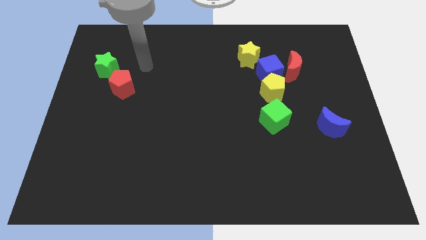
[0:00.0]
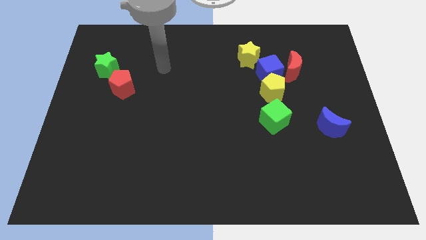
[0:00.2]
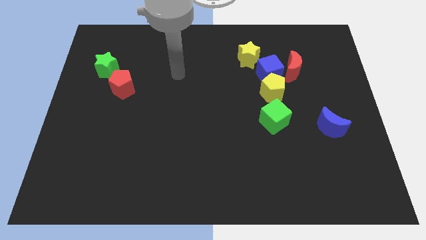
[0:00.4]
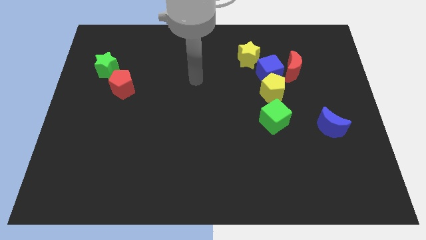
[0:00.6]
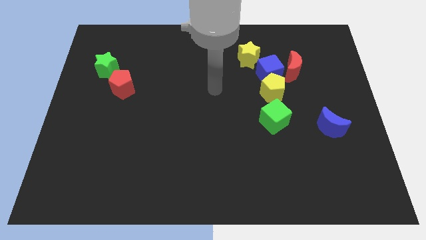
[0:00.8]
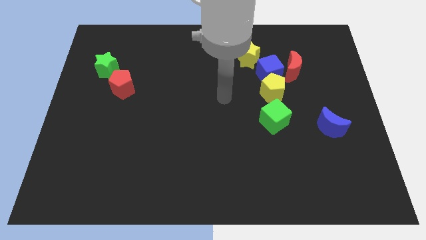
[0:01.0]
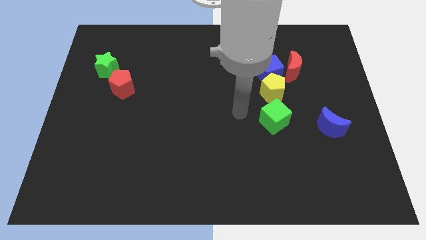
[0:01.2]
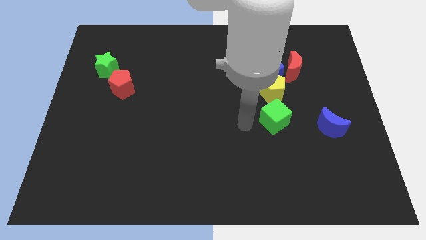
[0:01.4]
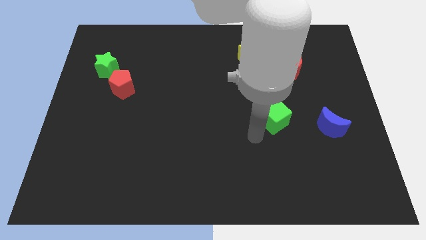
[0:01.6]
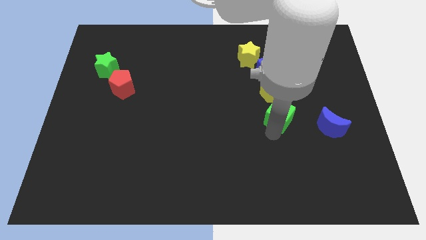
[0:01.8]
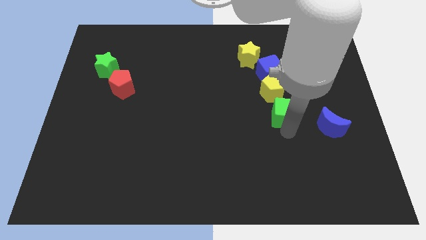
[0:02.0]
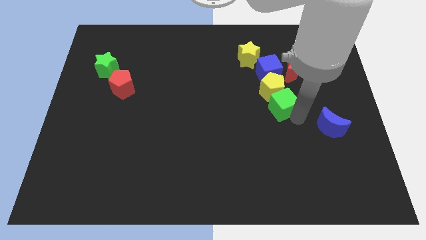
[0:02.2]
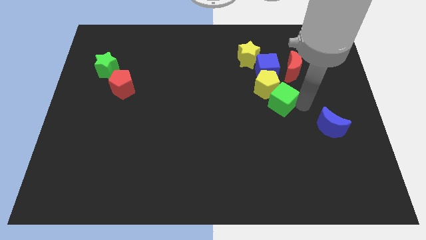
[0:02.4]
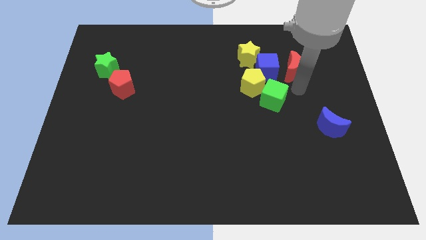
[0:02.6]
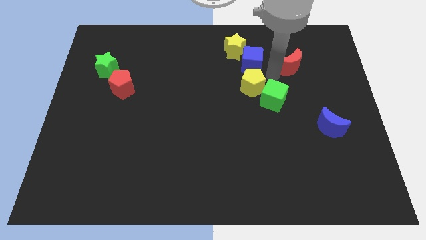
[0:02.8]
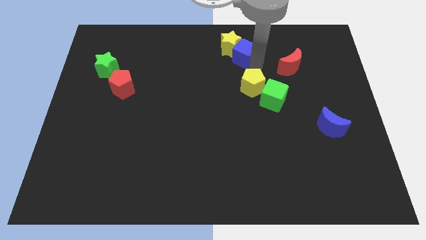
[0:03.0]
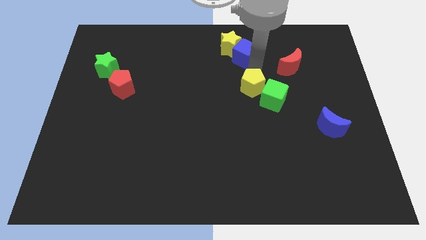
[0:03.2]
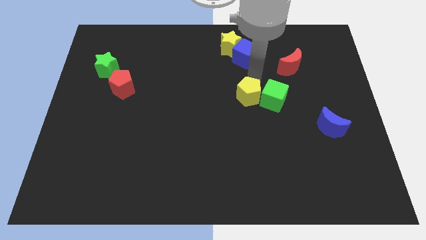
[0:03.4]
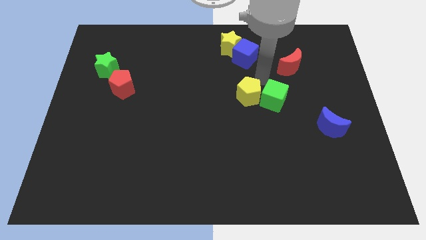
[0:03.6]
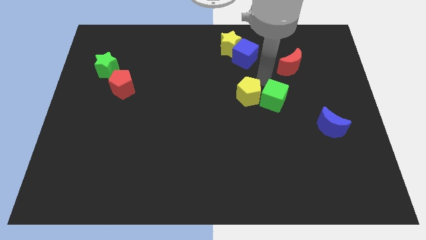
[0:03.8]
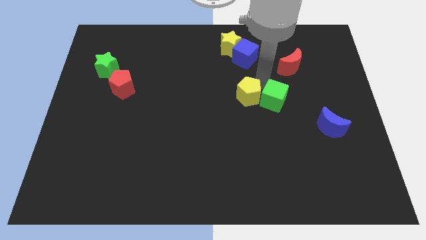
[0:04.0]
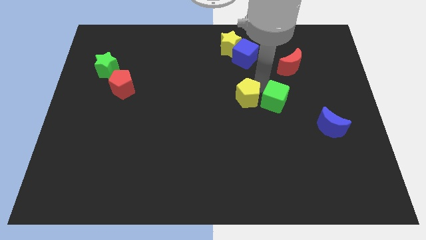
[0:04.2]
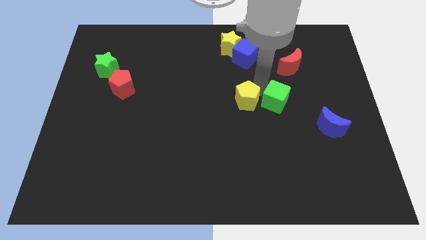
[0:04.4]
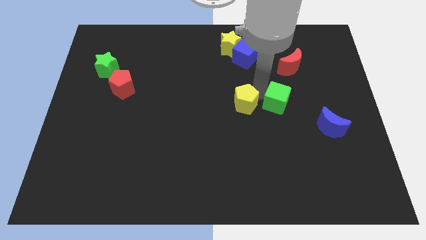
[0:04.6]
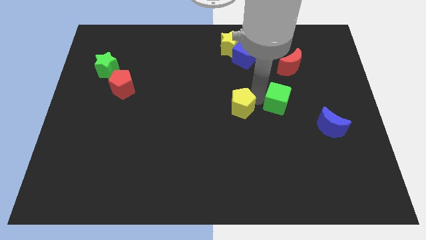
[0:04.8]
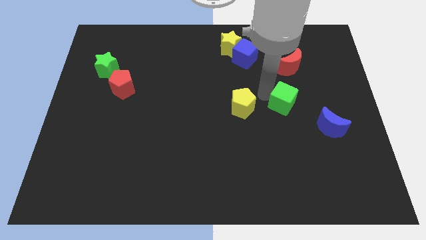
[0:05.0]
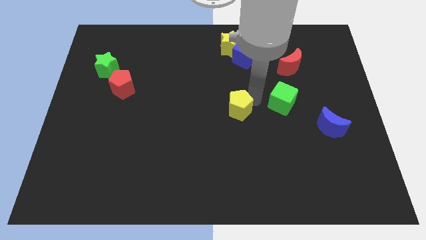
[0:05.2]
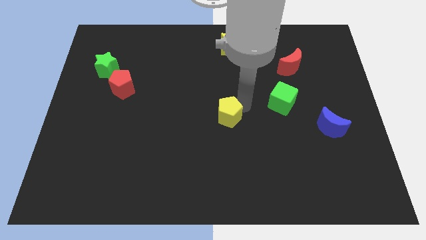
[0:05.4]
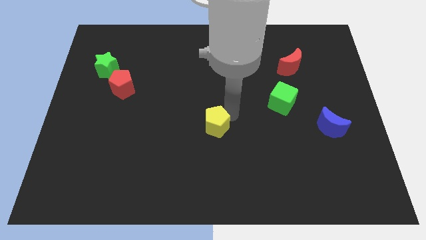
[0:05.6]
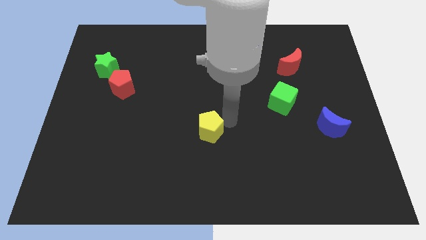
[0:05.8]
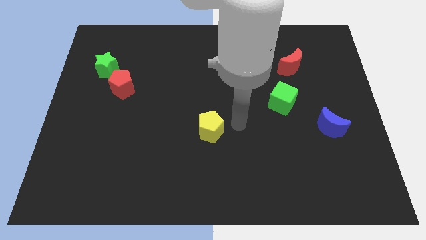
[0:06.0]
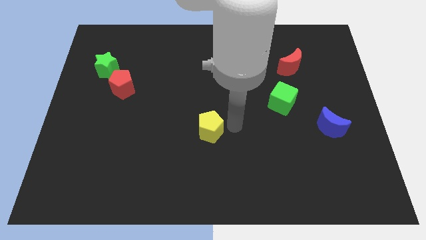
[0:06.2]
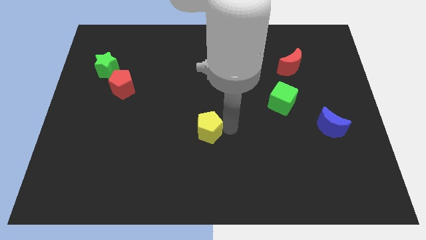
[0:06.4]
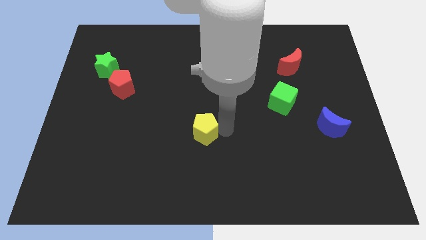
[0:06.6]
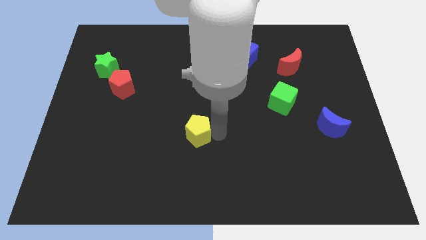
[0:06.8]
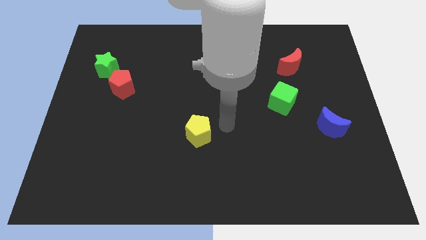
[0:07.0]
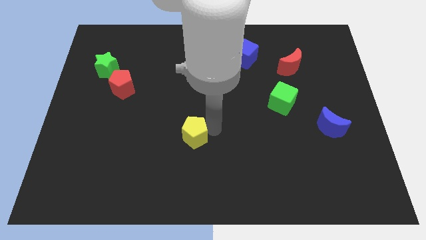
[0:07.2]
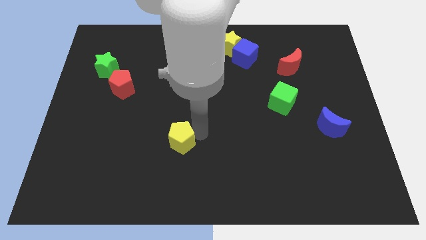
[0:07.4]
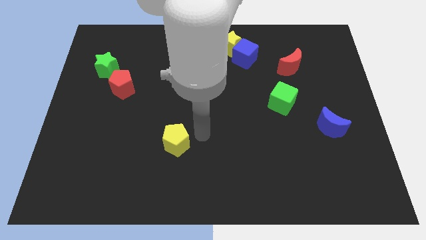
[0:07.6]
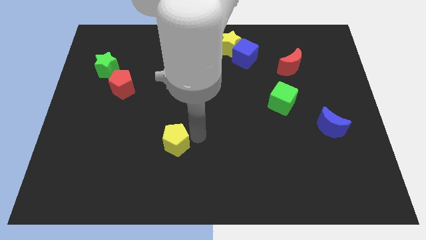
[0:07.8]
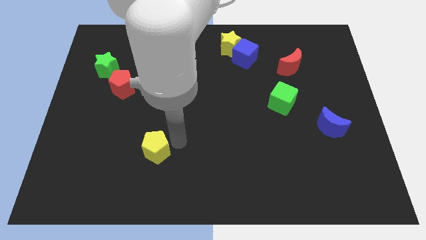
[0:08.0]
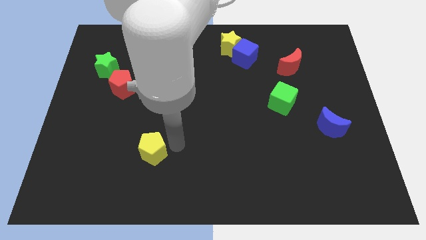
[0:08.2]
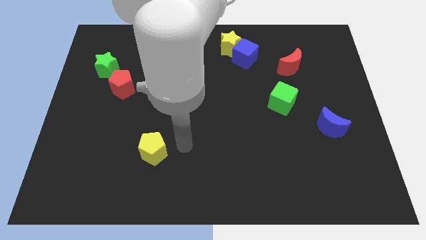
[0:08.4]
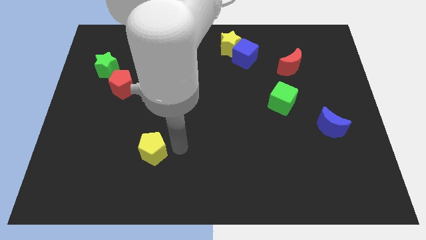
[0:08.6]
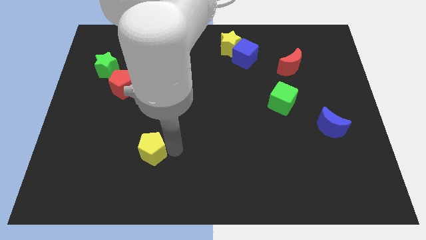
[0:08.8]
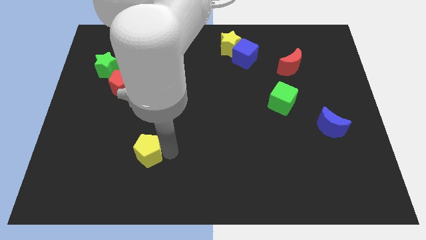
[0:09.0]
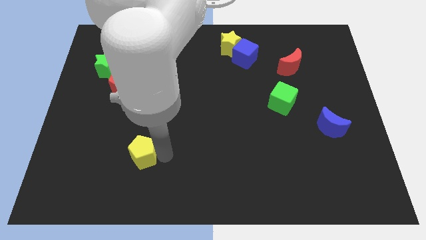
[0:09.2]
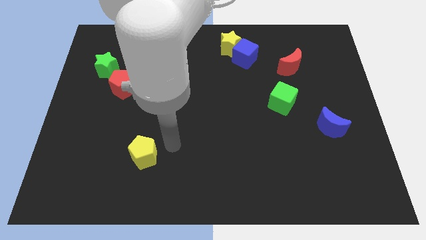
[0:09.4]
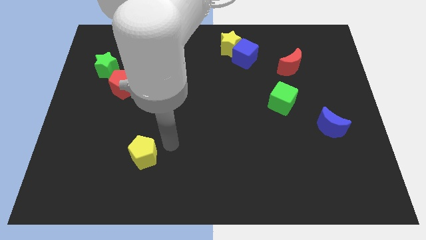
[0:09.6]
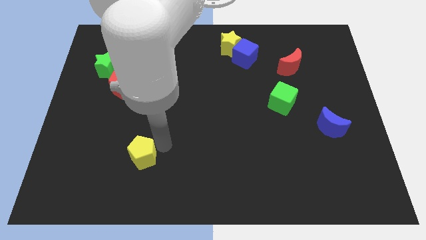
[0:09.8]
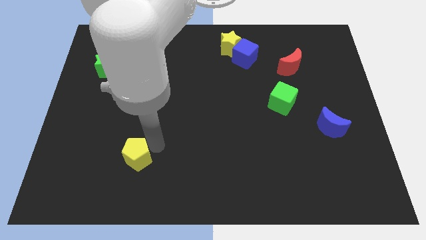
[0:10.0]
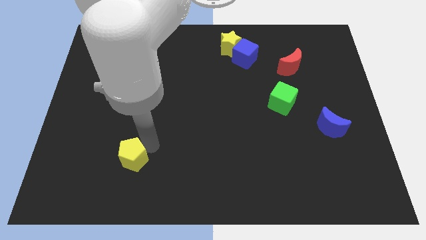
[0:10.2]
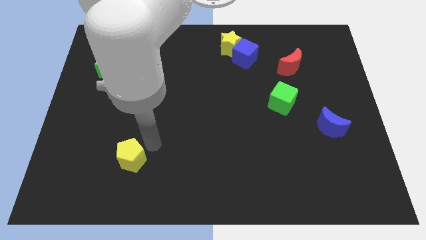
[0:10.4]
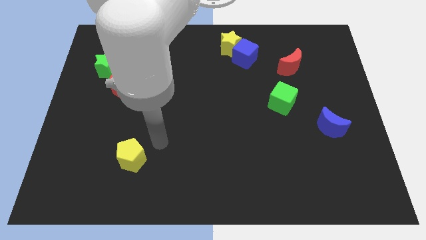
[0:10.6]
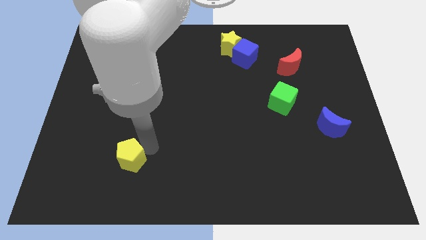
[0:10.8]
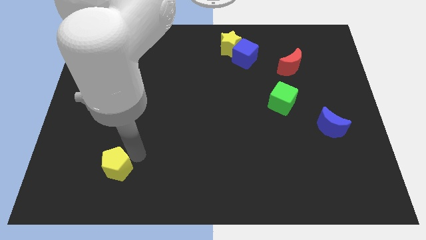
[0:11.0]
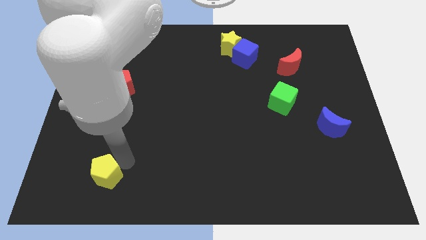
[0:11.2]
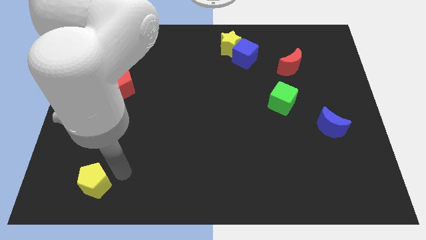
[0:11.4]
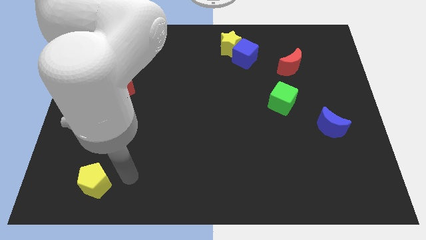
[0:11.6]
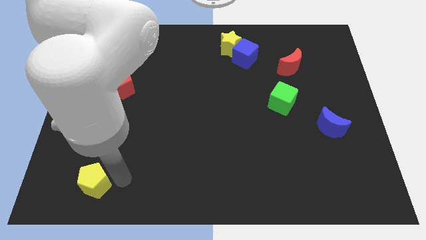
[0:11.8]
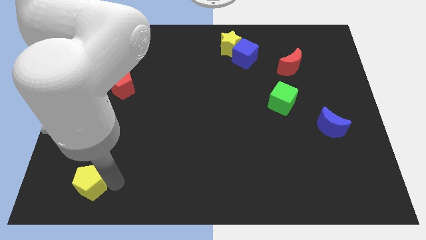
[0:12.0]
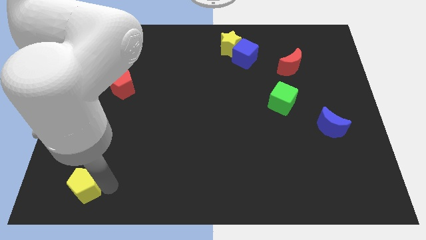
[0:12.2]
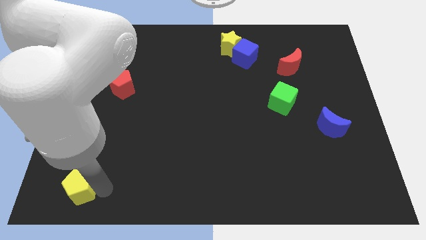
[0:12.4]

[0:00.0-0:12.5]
slide the yellow pentagon to the bottom left

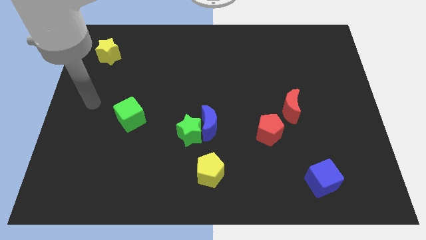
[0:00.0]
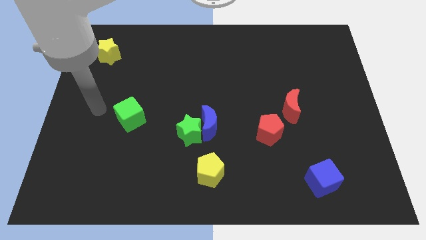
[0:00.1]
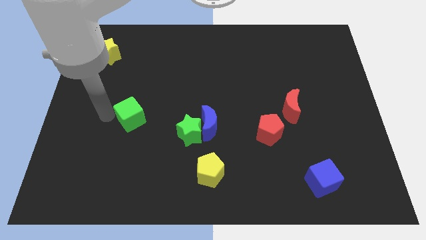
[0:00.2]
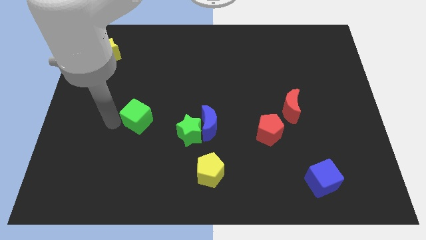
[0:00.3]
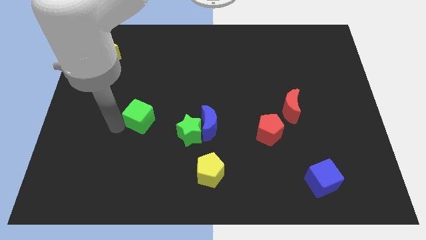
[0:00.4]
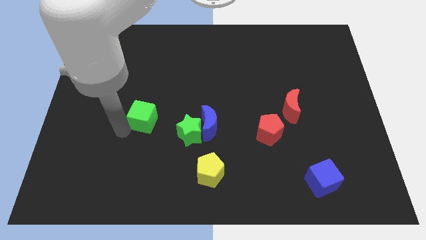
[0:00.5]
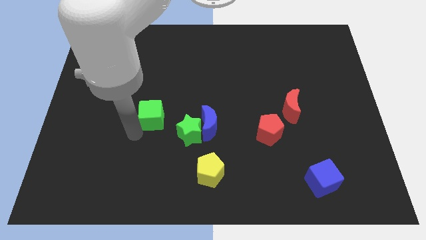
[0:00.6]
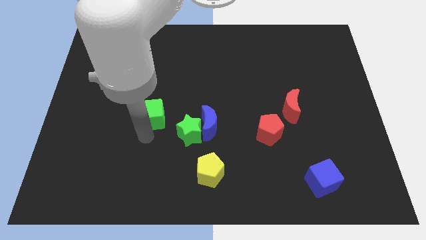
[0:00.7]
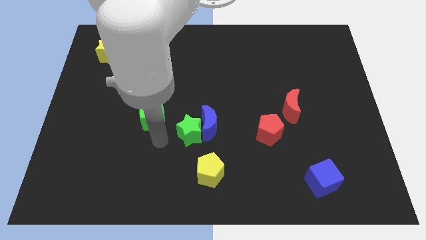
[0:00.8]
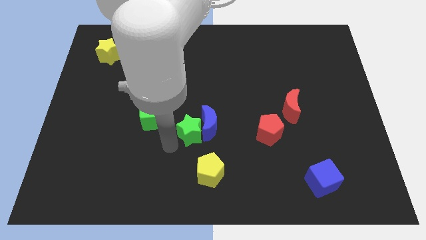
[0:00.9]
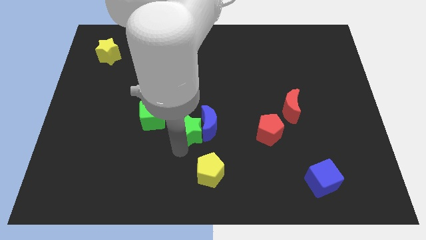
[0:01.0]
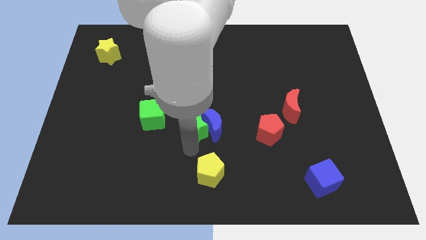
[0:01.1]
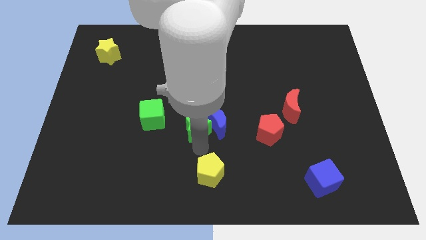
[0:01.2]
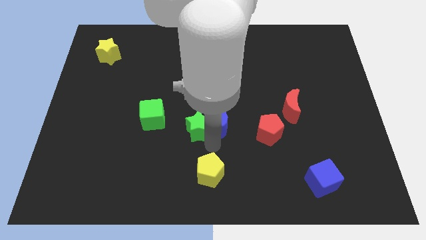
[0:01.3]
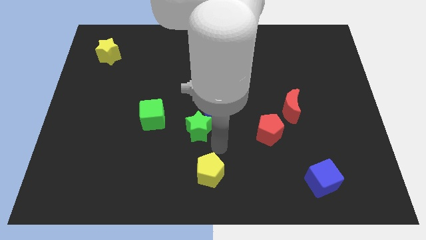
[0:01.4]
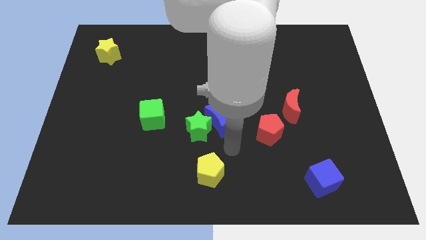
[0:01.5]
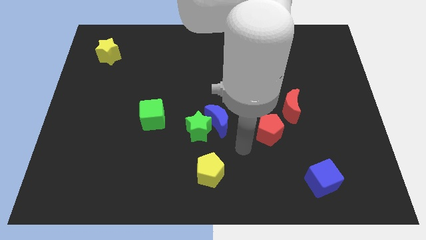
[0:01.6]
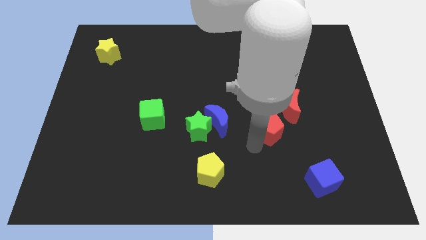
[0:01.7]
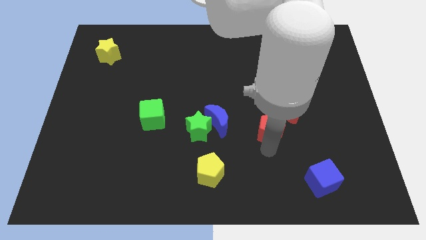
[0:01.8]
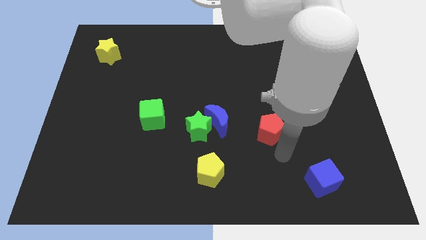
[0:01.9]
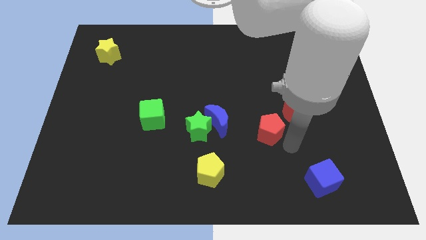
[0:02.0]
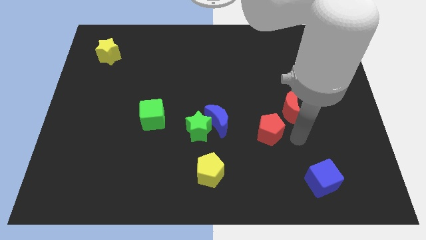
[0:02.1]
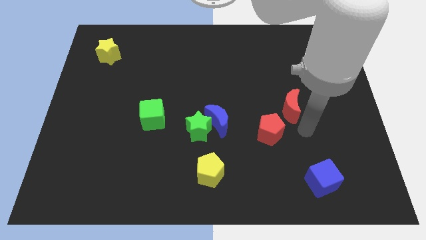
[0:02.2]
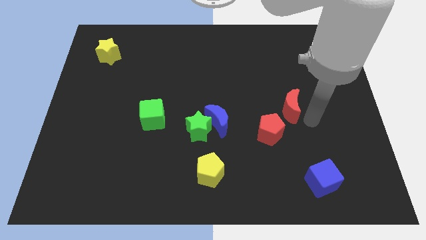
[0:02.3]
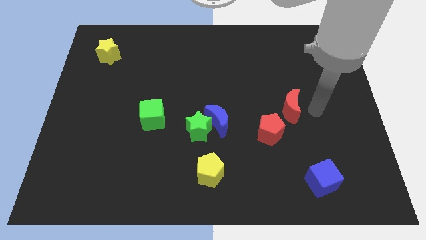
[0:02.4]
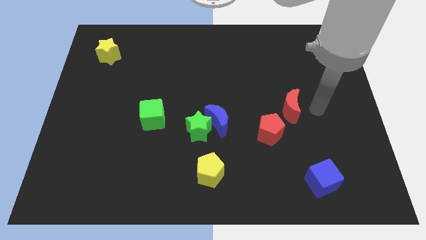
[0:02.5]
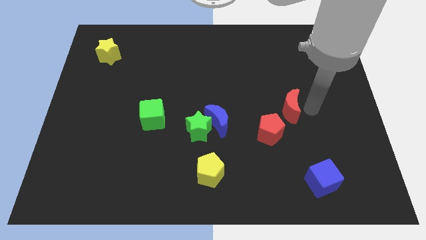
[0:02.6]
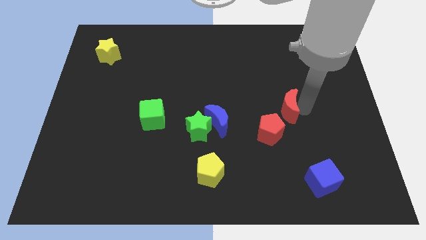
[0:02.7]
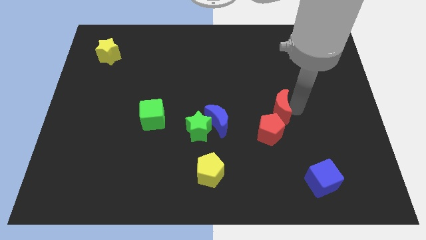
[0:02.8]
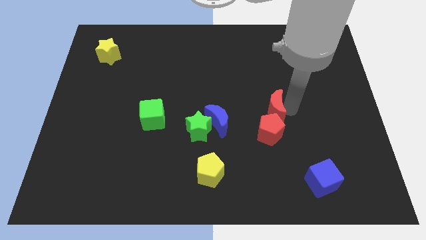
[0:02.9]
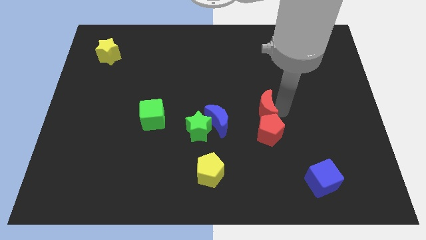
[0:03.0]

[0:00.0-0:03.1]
push the red moon to the middle of the board
